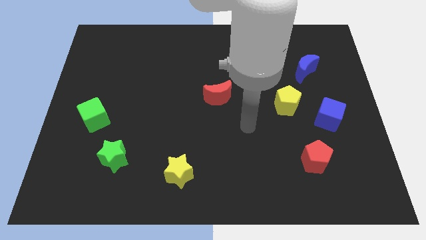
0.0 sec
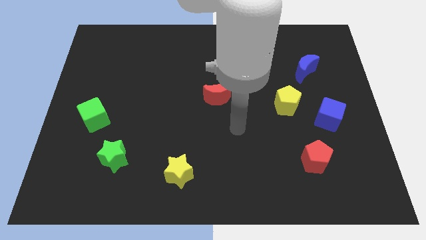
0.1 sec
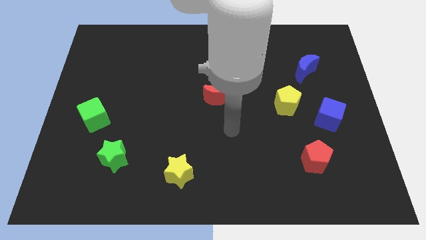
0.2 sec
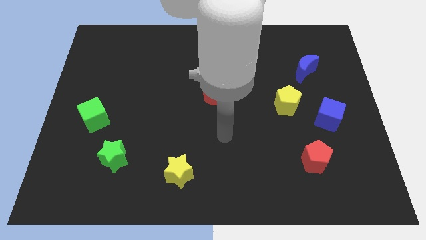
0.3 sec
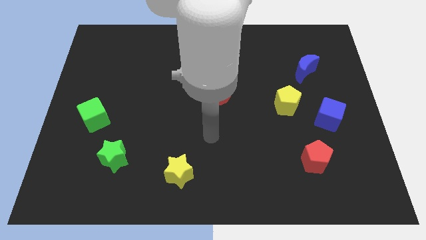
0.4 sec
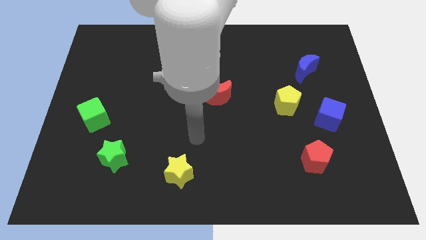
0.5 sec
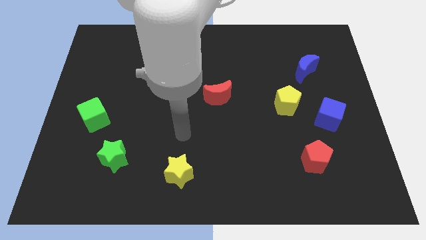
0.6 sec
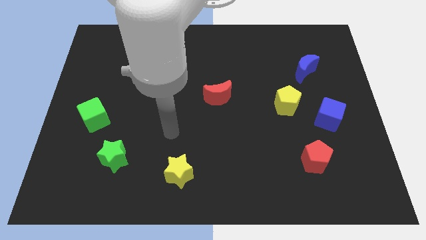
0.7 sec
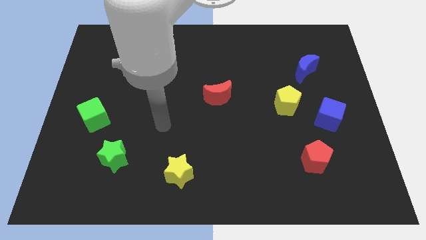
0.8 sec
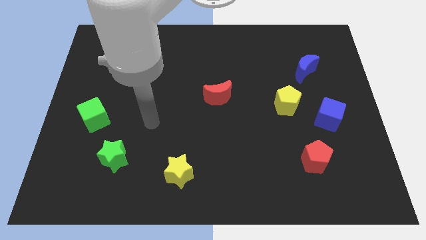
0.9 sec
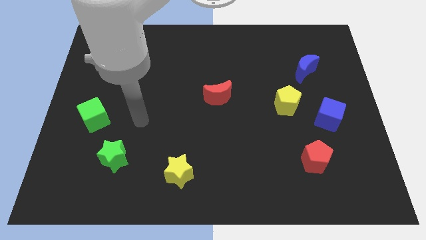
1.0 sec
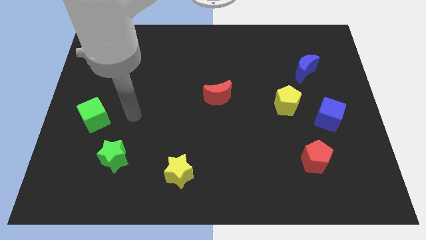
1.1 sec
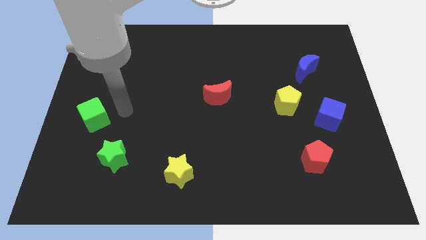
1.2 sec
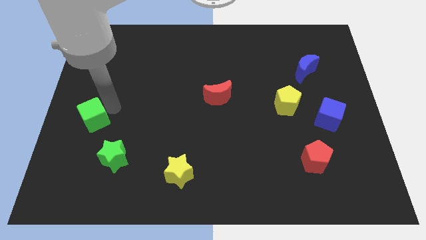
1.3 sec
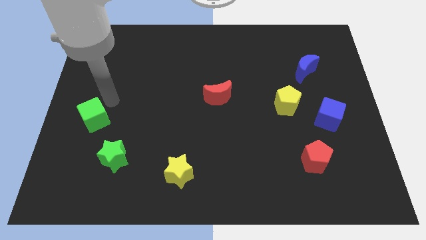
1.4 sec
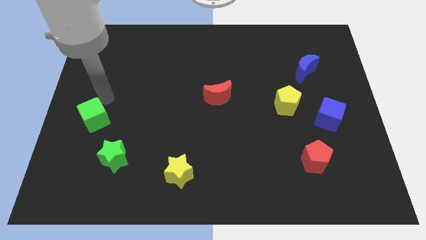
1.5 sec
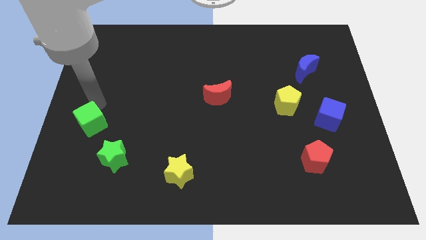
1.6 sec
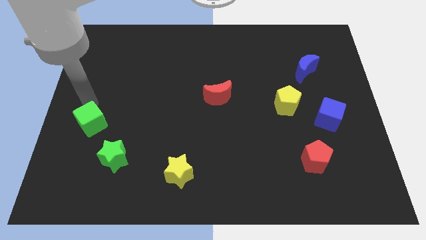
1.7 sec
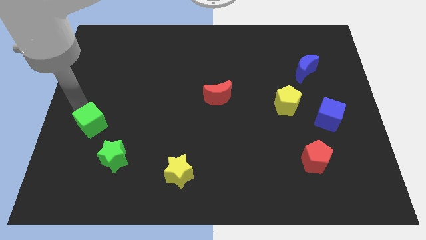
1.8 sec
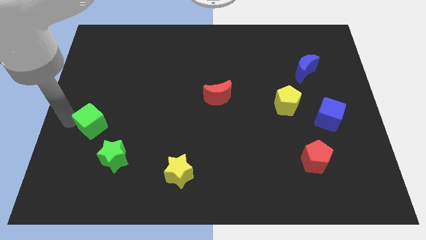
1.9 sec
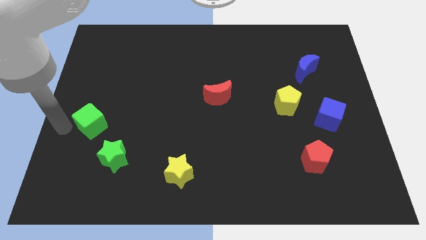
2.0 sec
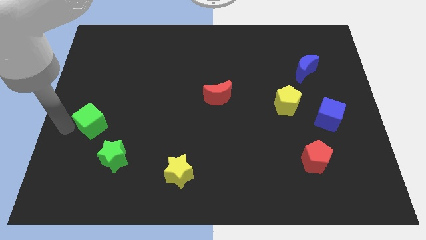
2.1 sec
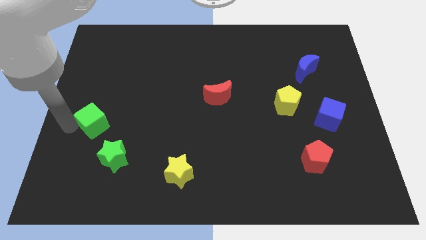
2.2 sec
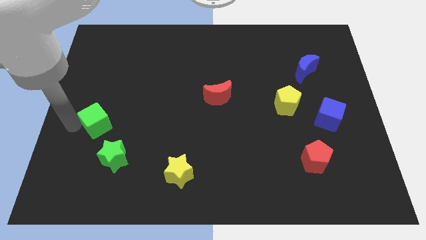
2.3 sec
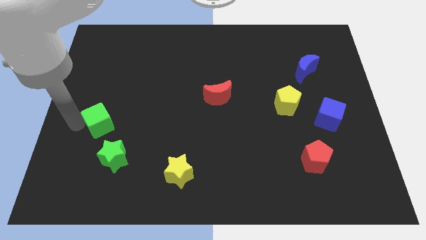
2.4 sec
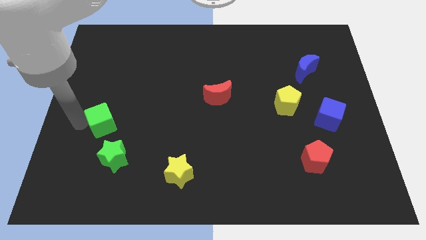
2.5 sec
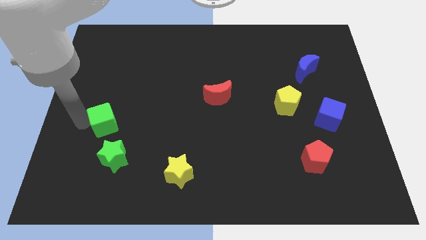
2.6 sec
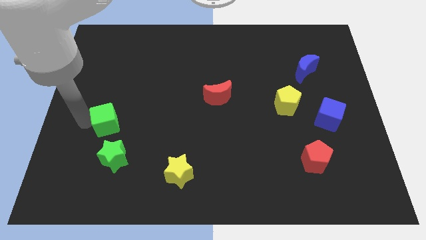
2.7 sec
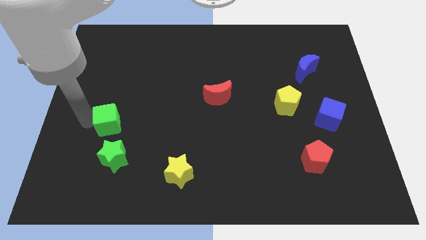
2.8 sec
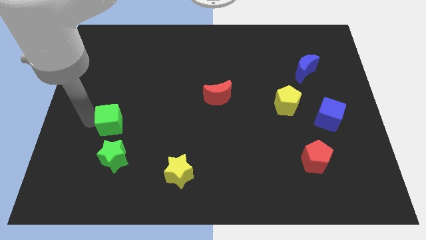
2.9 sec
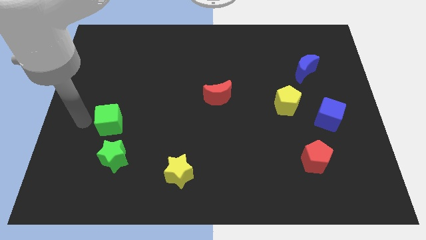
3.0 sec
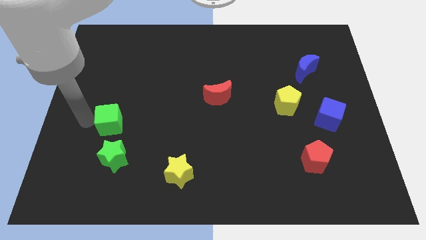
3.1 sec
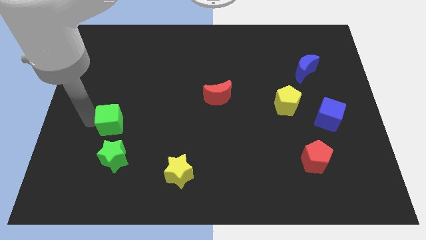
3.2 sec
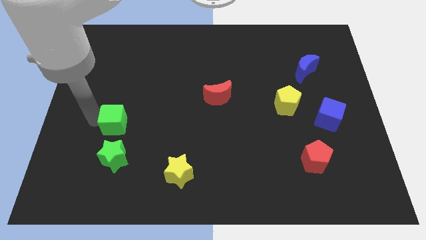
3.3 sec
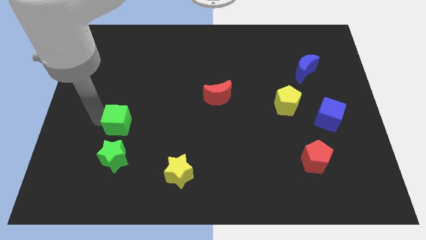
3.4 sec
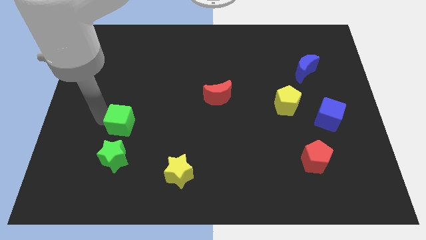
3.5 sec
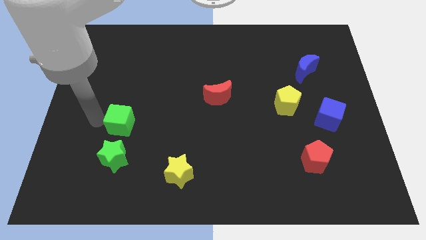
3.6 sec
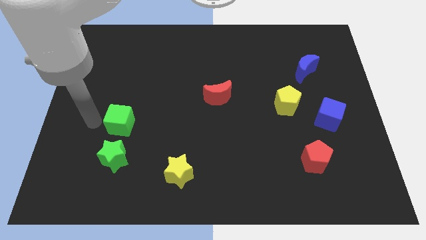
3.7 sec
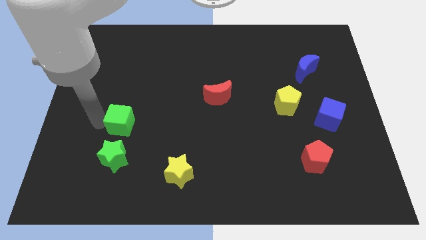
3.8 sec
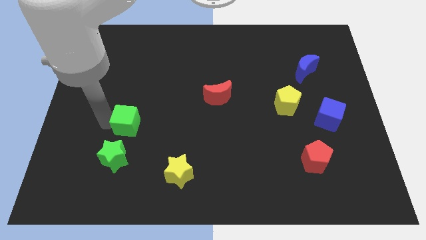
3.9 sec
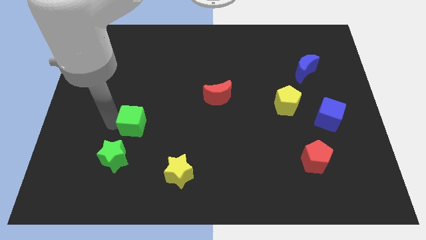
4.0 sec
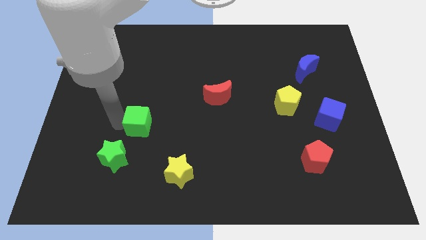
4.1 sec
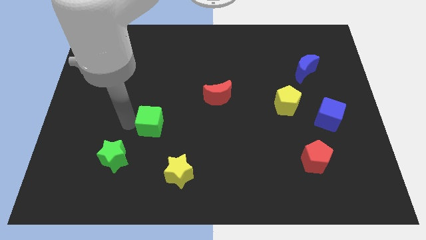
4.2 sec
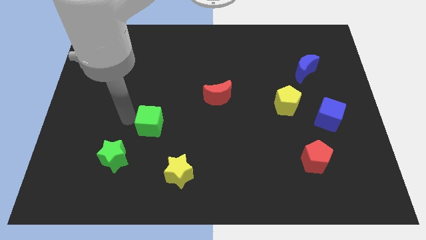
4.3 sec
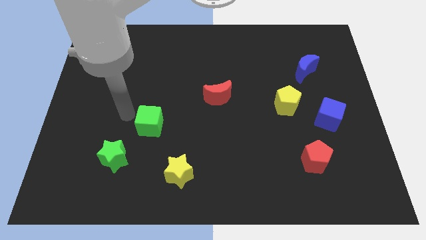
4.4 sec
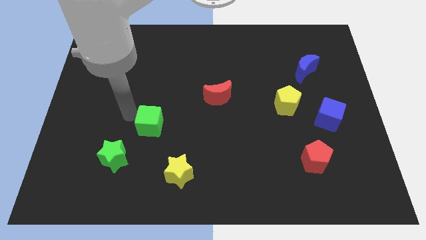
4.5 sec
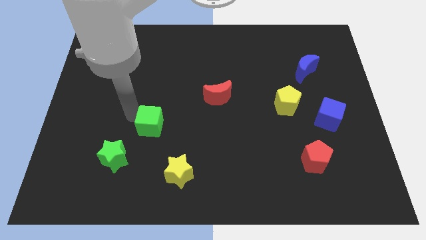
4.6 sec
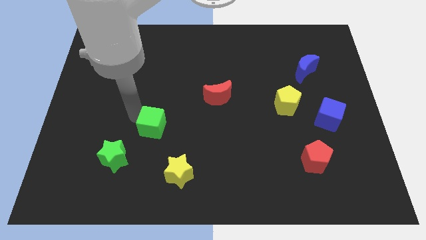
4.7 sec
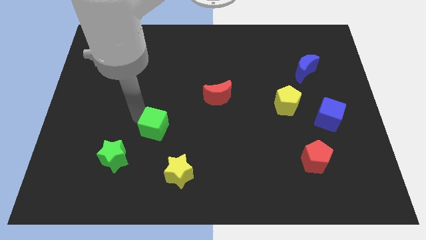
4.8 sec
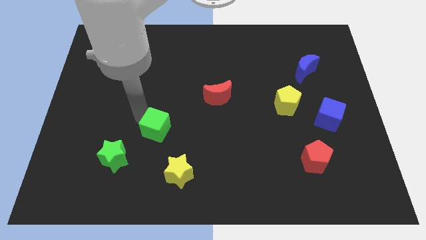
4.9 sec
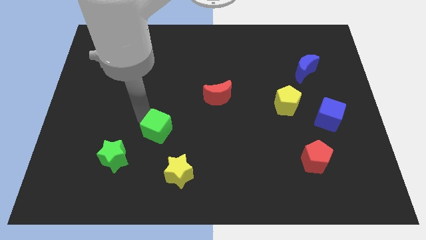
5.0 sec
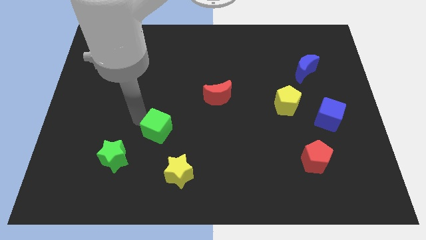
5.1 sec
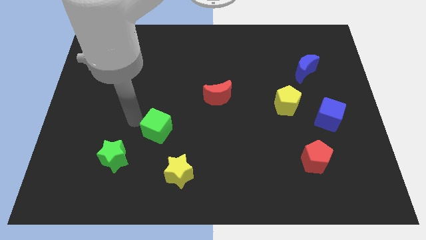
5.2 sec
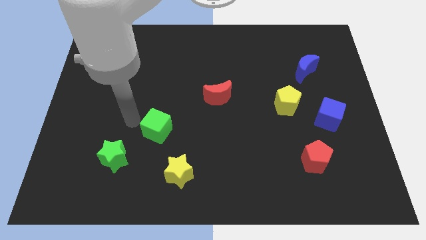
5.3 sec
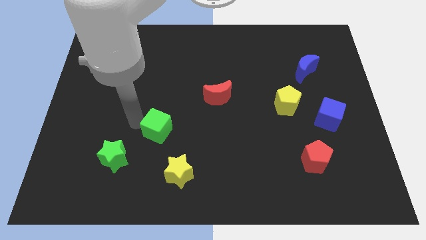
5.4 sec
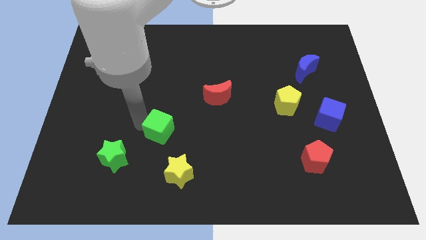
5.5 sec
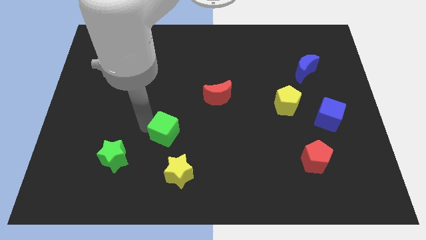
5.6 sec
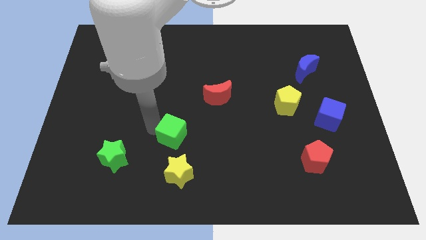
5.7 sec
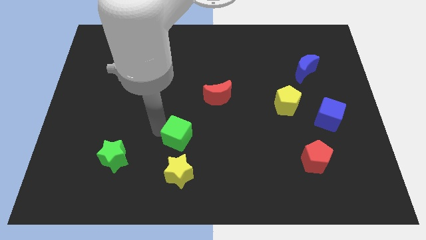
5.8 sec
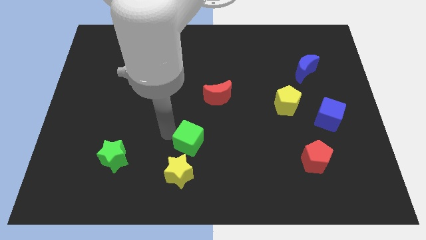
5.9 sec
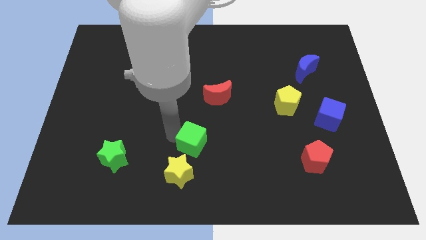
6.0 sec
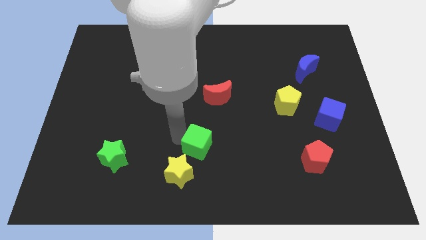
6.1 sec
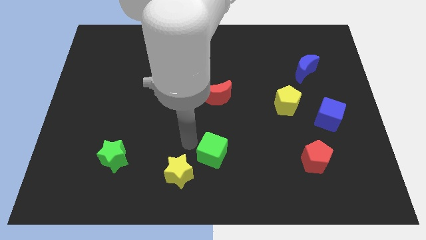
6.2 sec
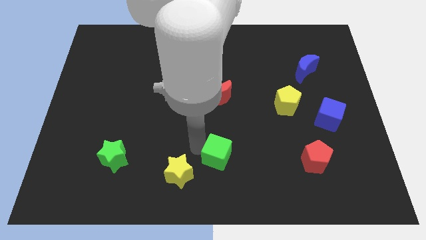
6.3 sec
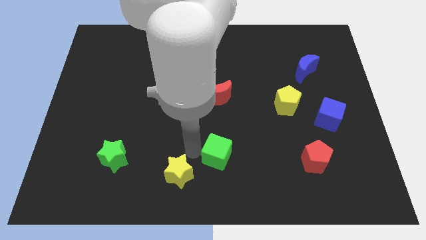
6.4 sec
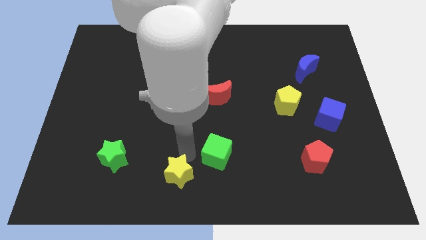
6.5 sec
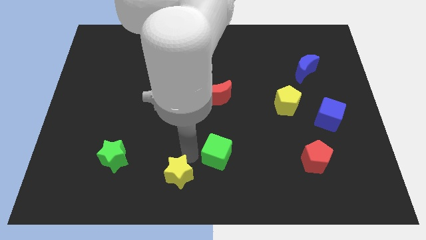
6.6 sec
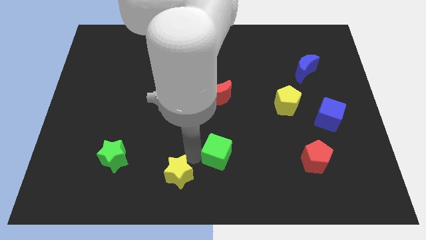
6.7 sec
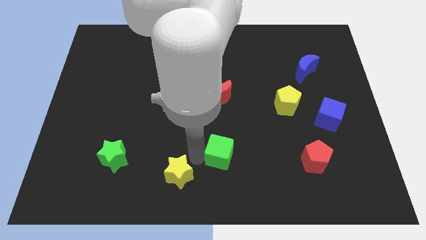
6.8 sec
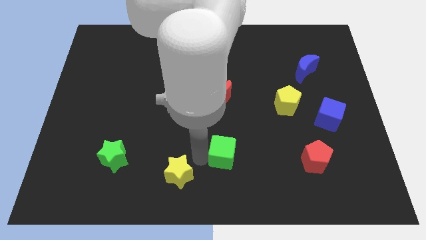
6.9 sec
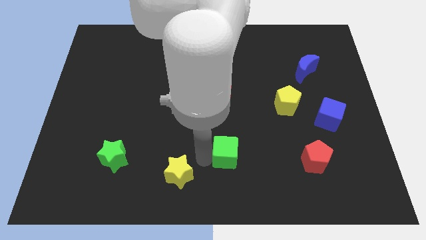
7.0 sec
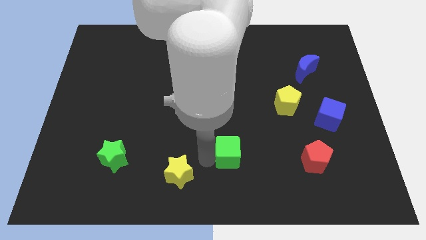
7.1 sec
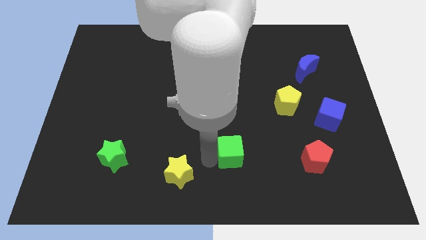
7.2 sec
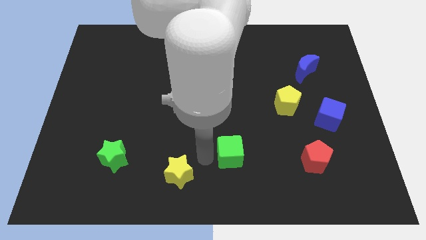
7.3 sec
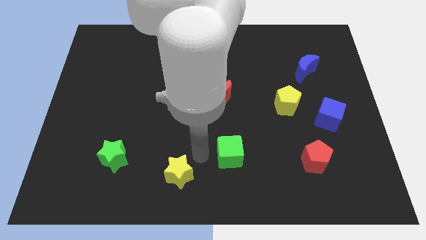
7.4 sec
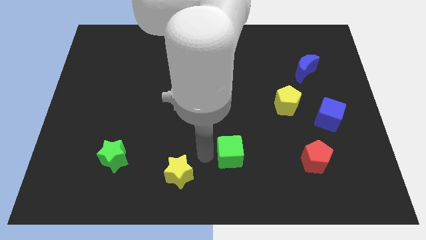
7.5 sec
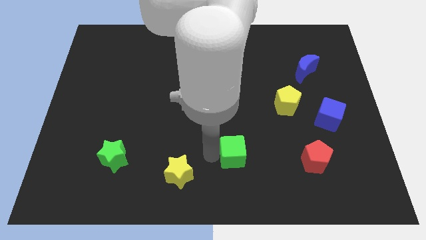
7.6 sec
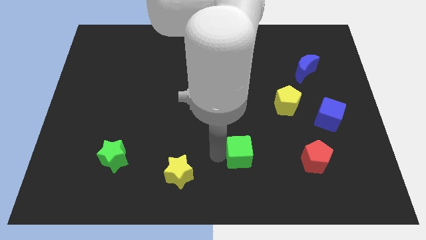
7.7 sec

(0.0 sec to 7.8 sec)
push the green cube just left of the red pentagon

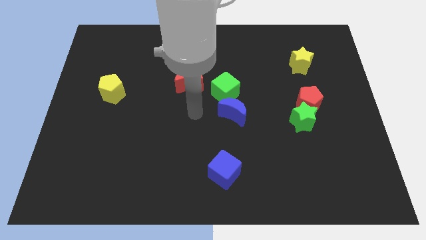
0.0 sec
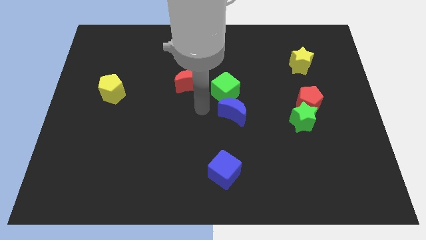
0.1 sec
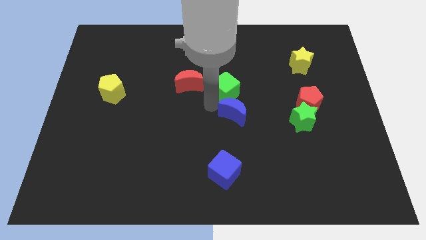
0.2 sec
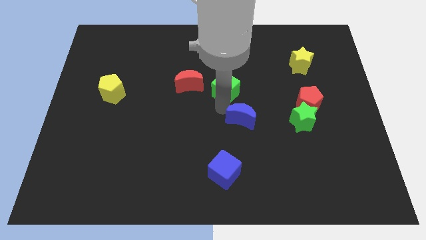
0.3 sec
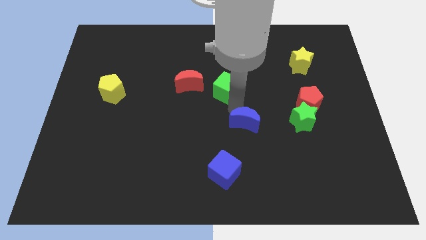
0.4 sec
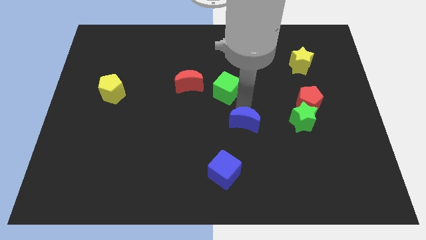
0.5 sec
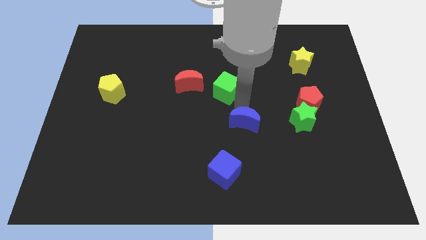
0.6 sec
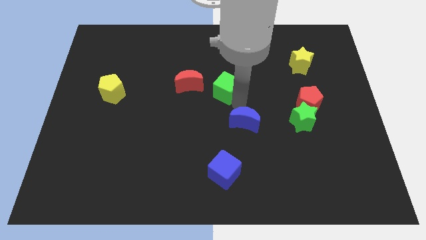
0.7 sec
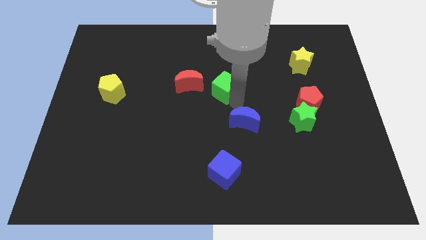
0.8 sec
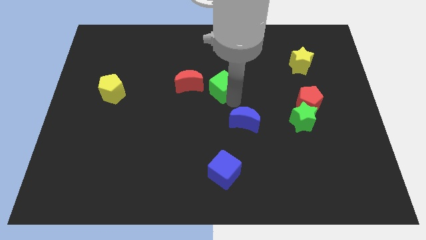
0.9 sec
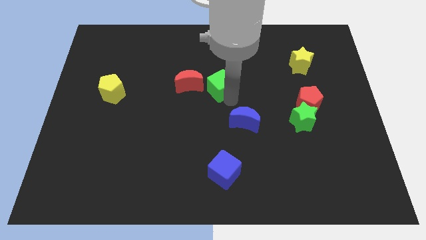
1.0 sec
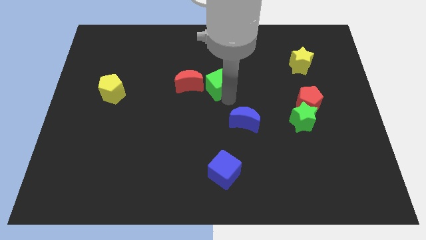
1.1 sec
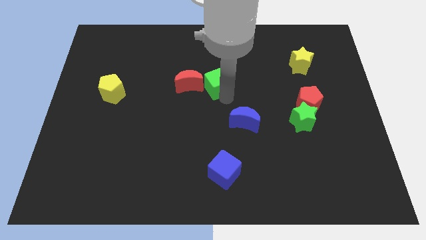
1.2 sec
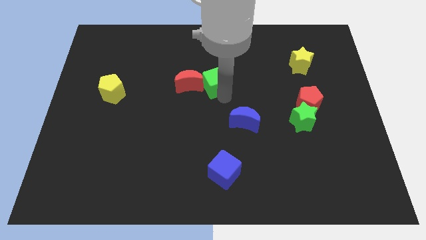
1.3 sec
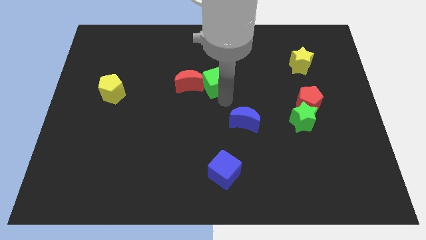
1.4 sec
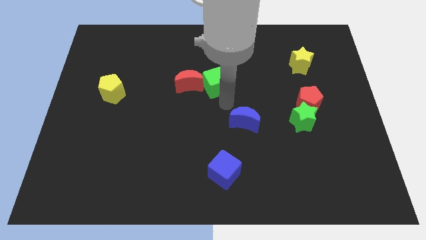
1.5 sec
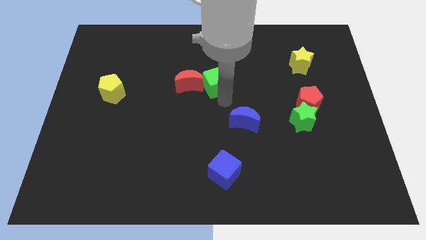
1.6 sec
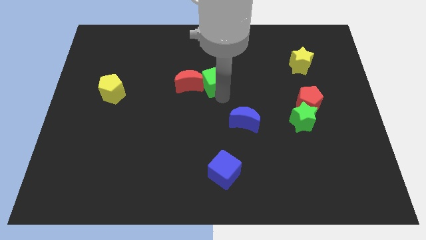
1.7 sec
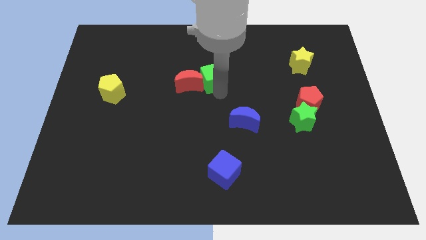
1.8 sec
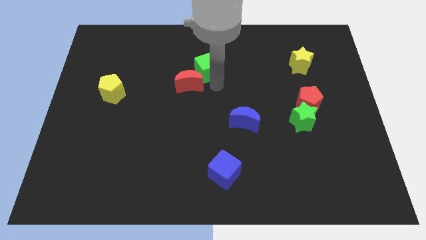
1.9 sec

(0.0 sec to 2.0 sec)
slide the green cube to the top side of the red moon
